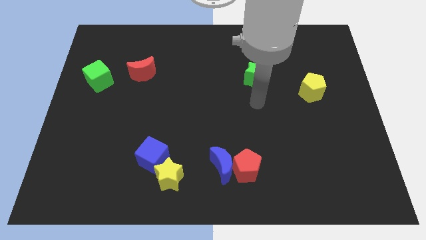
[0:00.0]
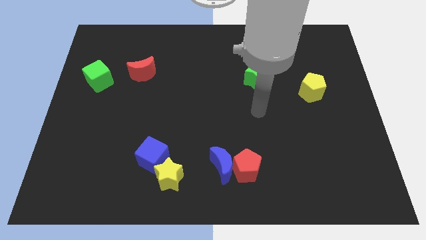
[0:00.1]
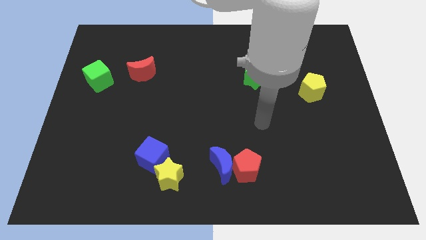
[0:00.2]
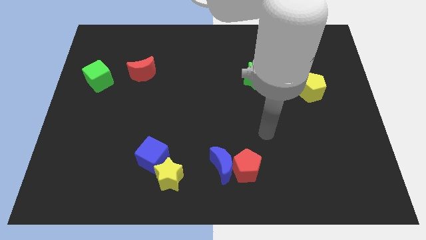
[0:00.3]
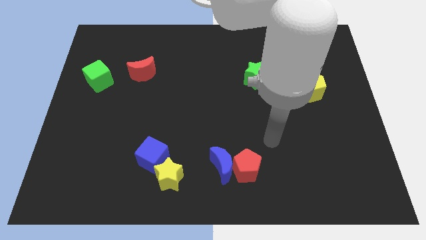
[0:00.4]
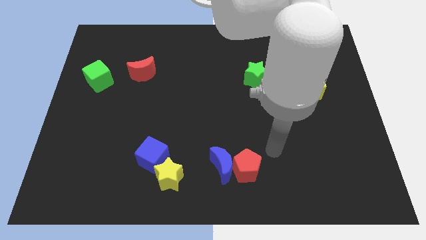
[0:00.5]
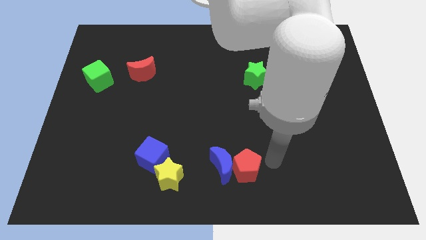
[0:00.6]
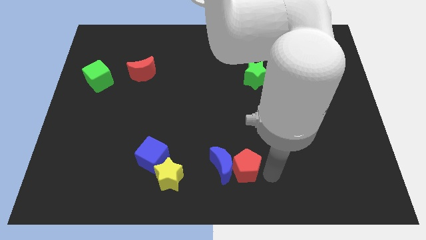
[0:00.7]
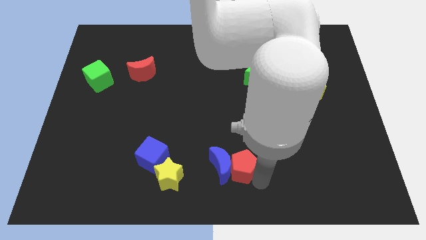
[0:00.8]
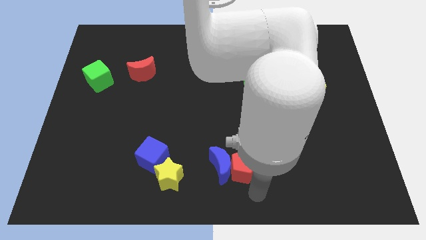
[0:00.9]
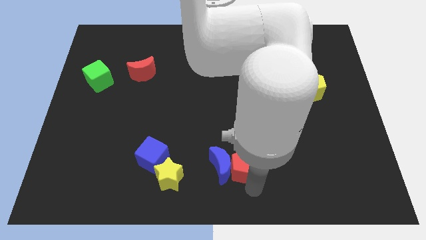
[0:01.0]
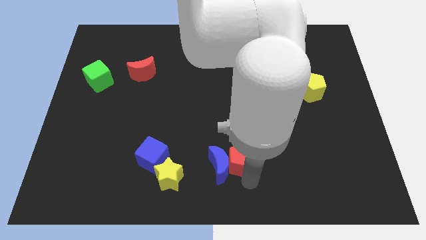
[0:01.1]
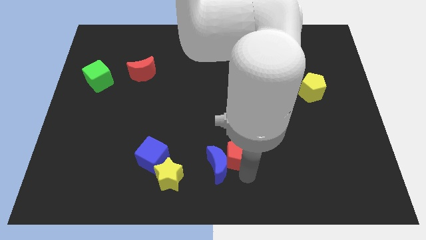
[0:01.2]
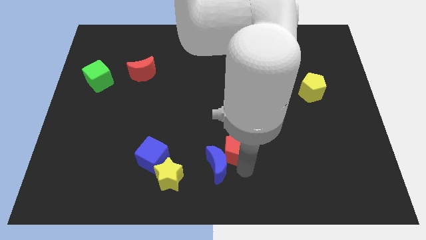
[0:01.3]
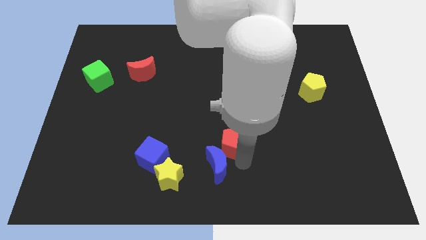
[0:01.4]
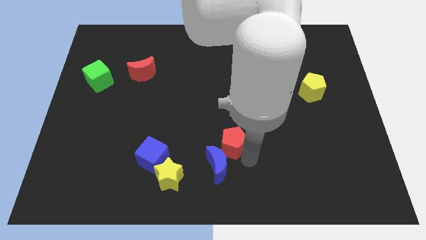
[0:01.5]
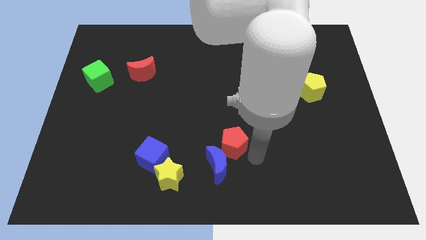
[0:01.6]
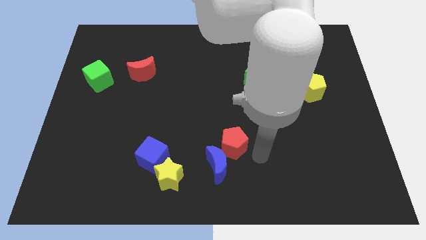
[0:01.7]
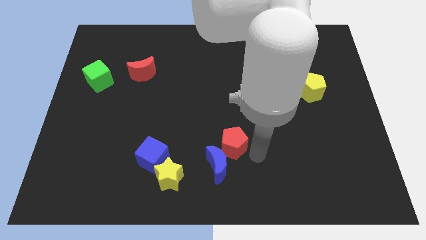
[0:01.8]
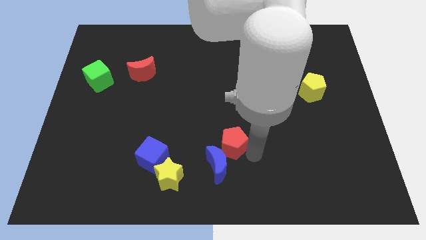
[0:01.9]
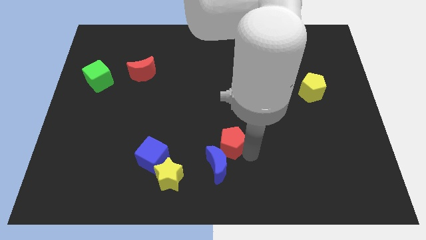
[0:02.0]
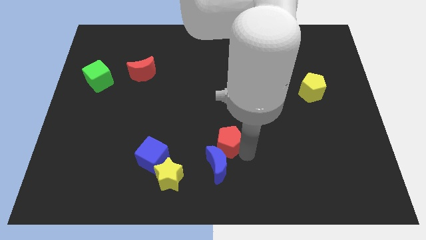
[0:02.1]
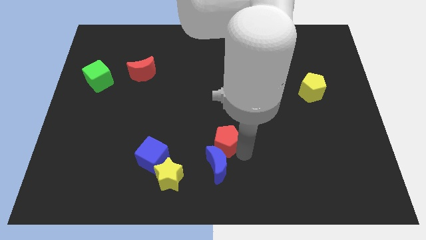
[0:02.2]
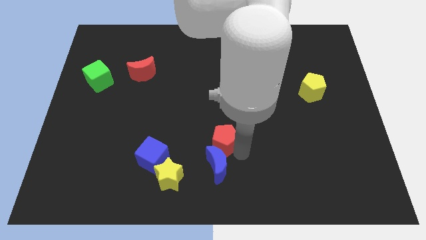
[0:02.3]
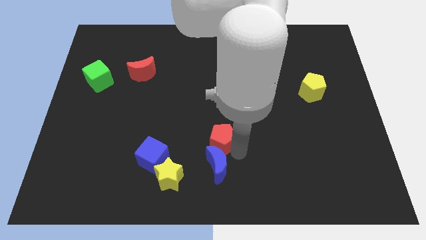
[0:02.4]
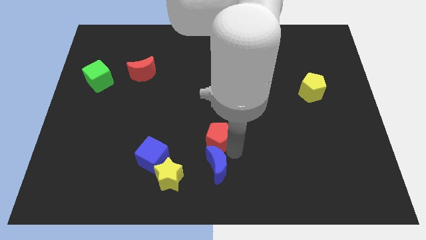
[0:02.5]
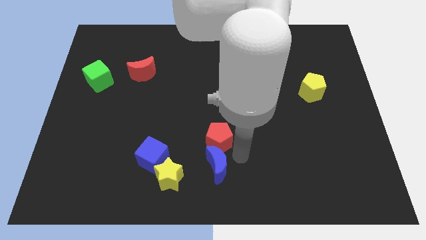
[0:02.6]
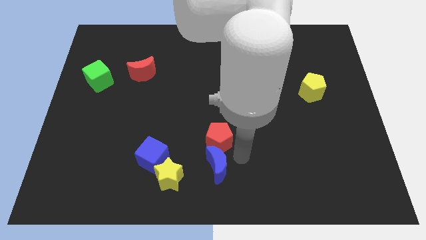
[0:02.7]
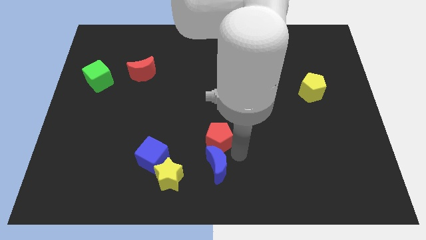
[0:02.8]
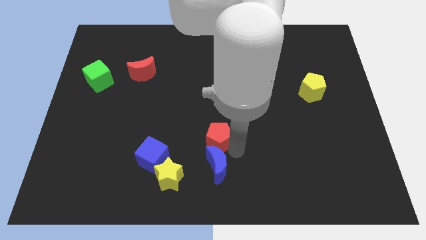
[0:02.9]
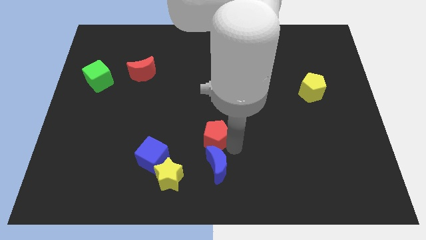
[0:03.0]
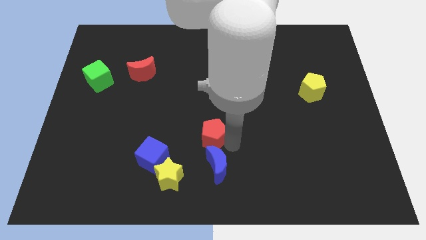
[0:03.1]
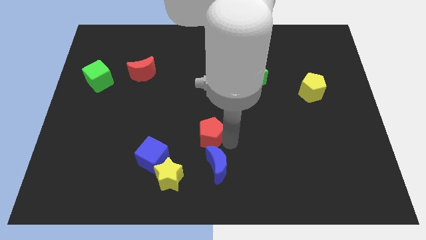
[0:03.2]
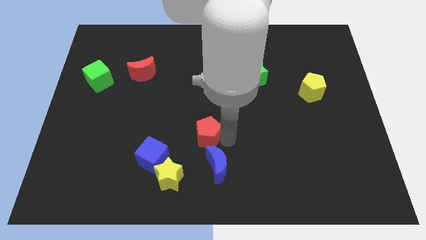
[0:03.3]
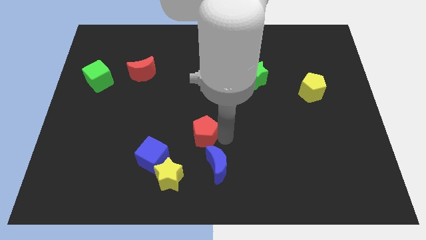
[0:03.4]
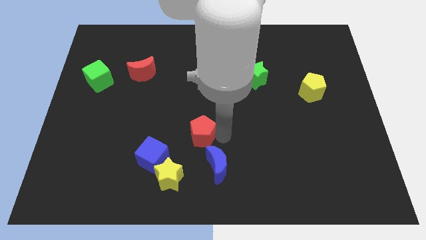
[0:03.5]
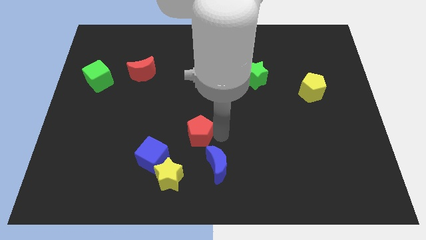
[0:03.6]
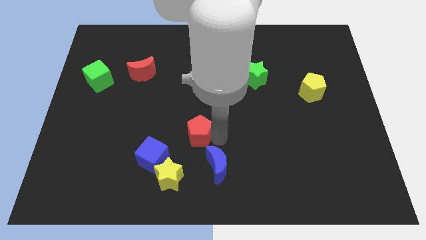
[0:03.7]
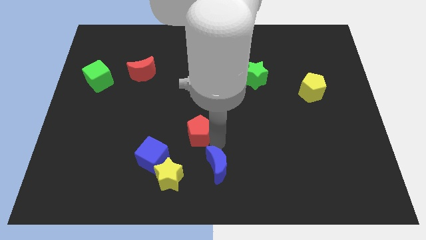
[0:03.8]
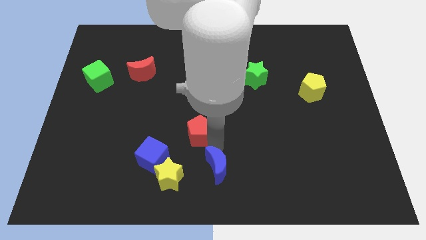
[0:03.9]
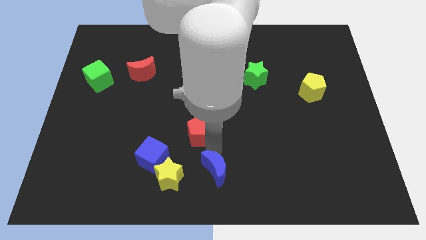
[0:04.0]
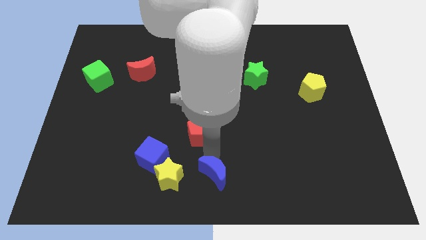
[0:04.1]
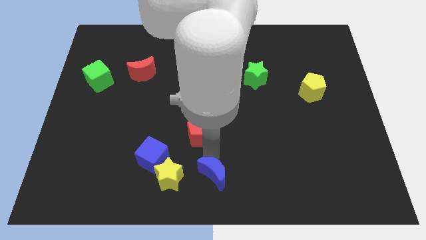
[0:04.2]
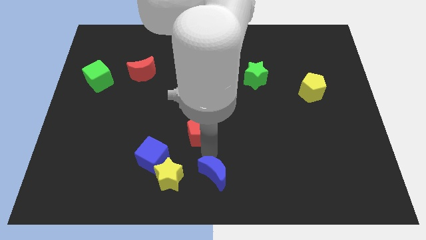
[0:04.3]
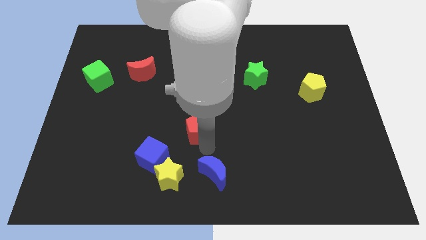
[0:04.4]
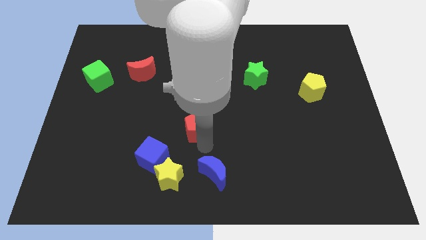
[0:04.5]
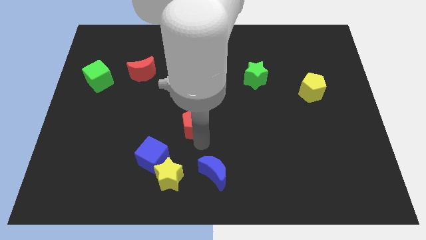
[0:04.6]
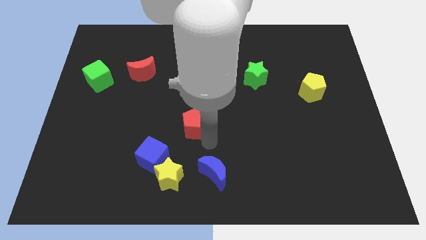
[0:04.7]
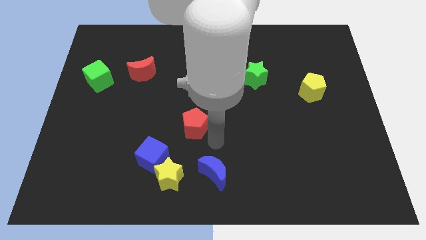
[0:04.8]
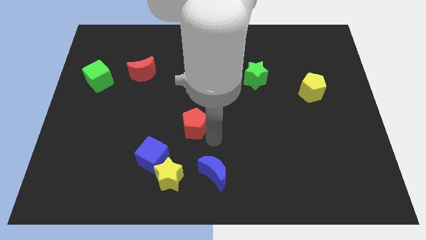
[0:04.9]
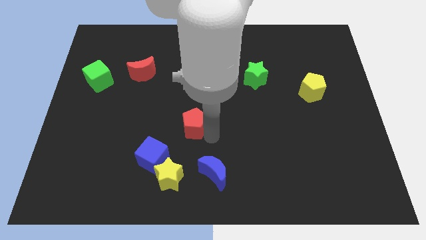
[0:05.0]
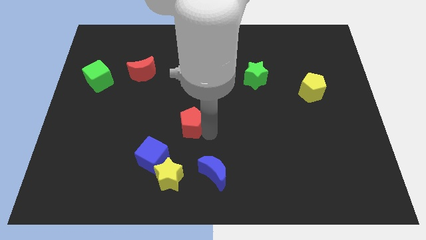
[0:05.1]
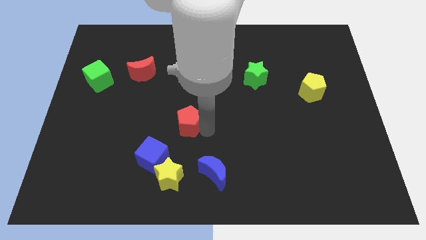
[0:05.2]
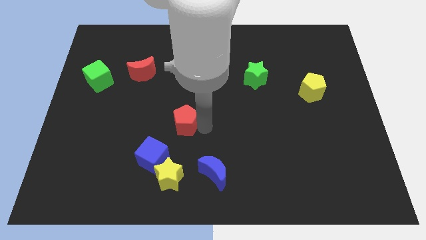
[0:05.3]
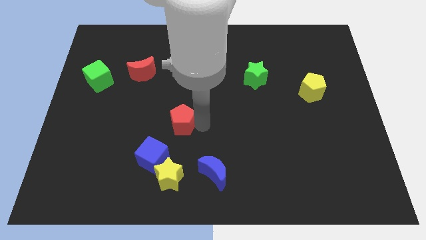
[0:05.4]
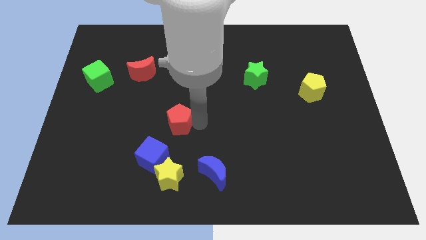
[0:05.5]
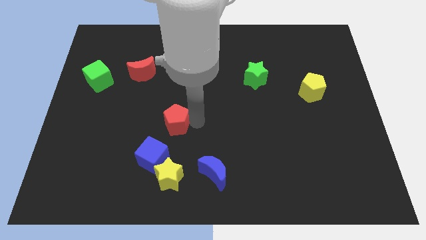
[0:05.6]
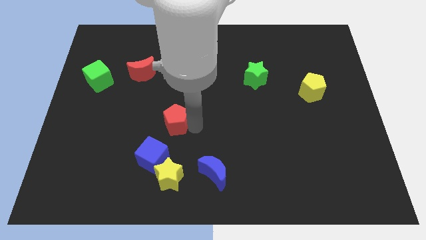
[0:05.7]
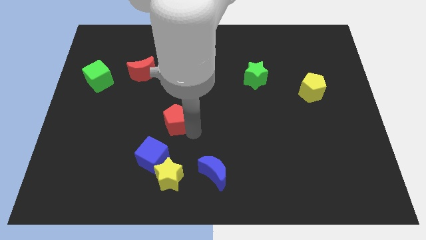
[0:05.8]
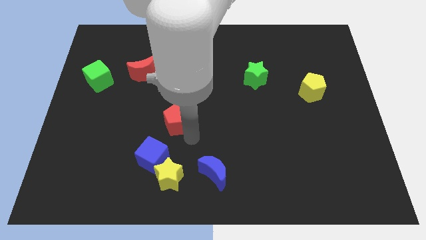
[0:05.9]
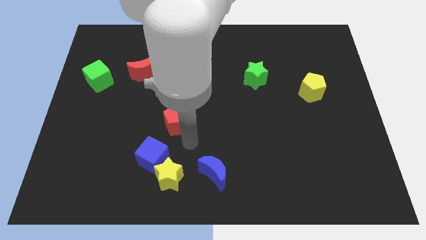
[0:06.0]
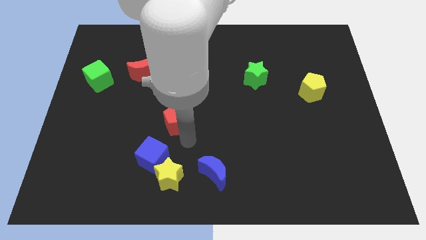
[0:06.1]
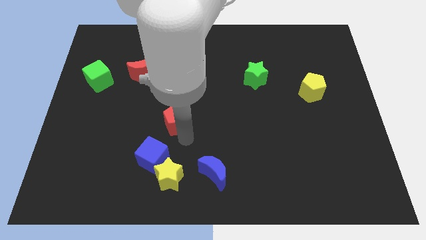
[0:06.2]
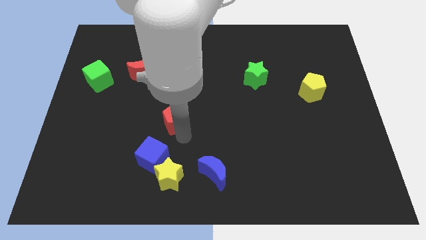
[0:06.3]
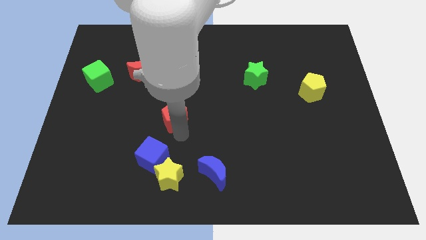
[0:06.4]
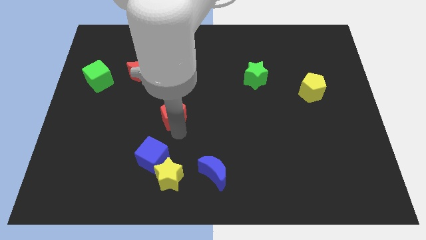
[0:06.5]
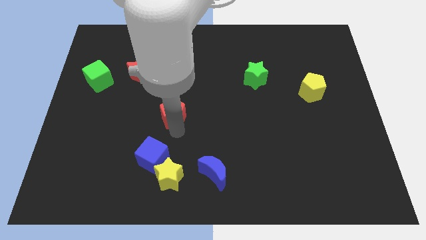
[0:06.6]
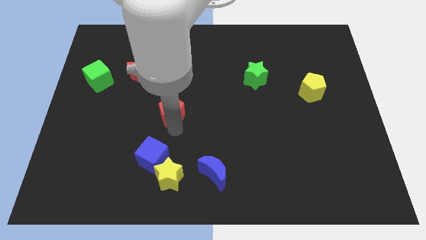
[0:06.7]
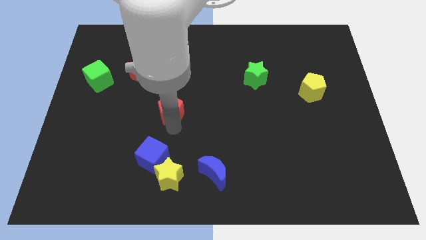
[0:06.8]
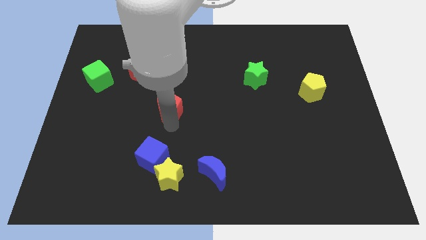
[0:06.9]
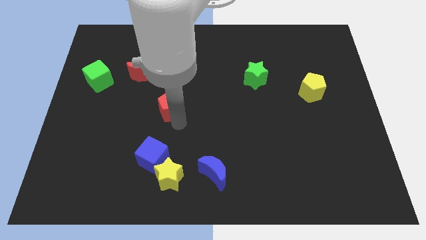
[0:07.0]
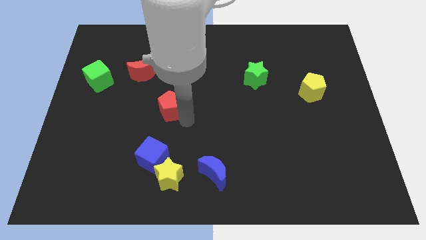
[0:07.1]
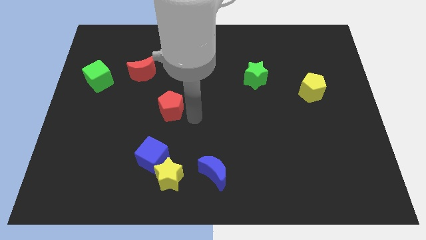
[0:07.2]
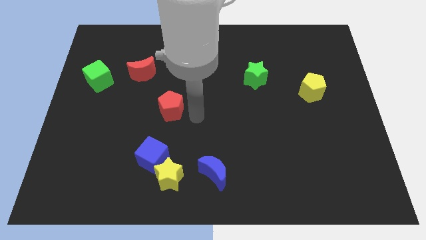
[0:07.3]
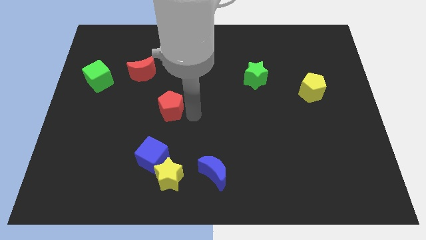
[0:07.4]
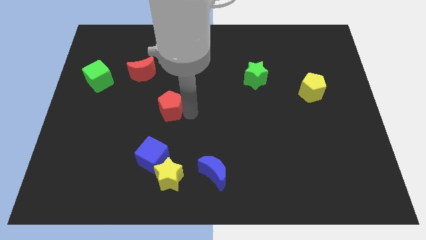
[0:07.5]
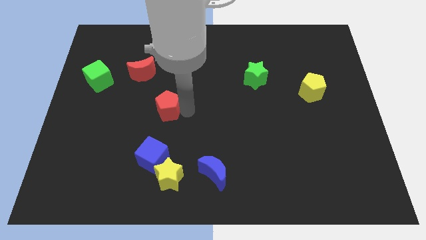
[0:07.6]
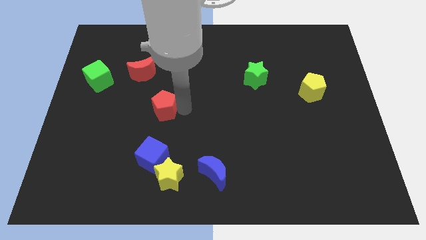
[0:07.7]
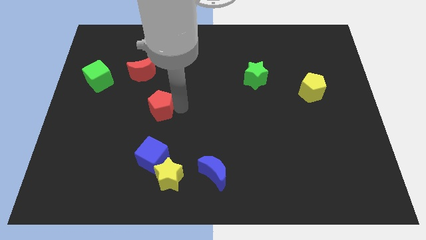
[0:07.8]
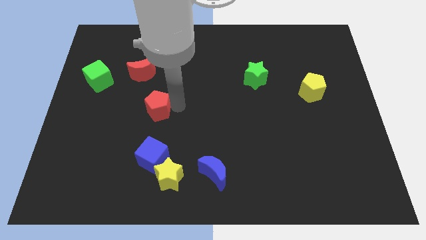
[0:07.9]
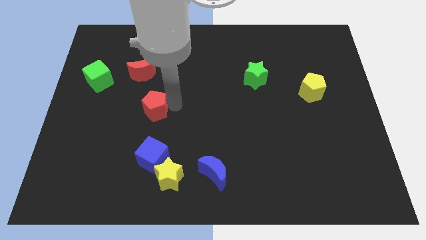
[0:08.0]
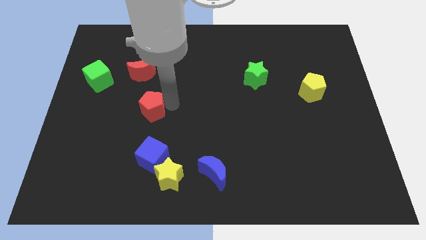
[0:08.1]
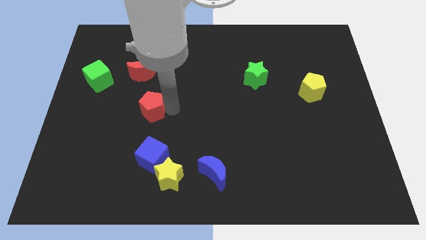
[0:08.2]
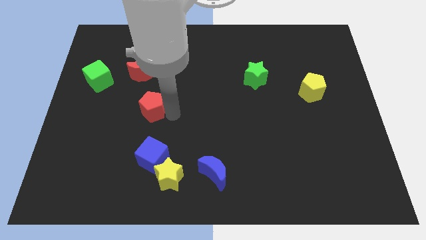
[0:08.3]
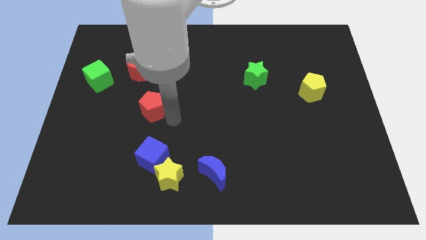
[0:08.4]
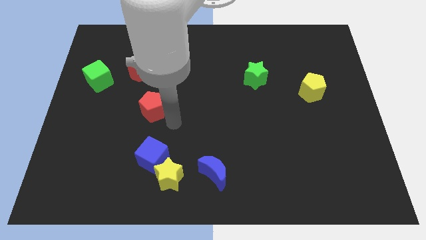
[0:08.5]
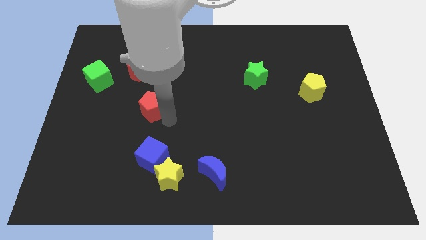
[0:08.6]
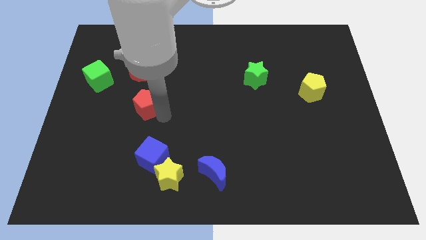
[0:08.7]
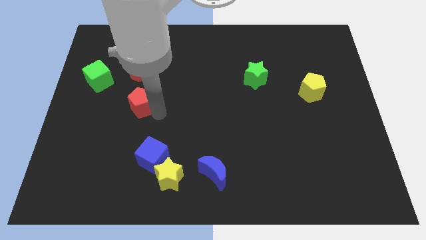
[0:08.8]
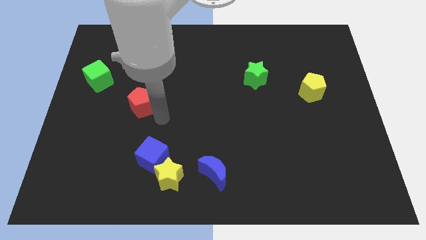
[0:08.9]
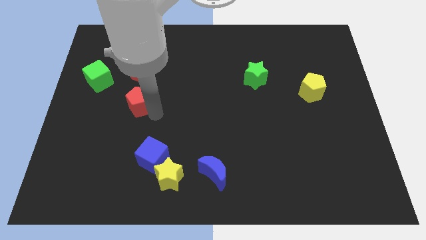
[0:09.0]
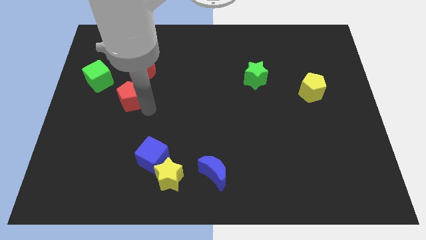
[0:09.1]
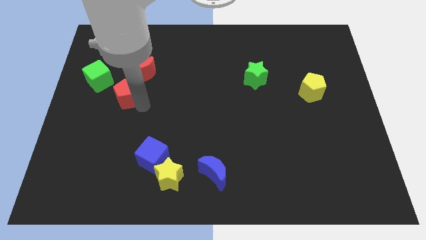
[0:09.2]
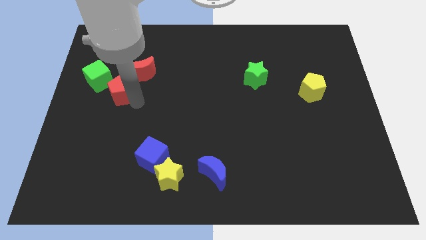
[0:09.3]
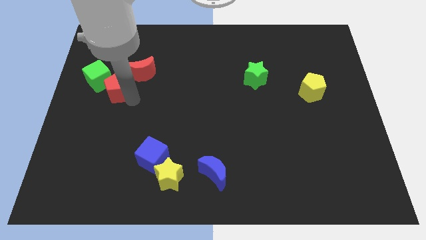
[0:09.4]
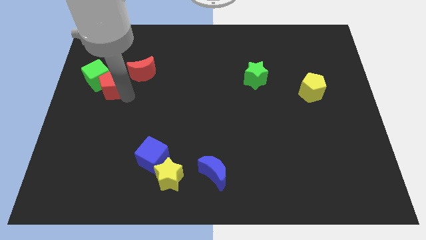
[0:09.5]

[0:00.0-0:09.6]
push the red pentagon towards the green cube
